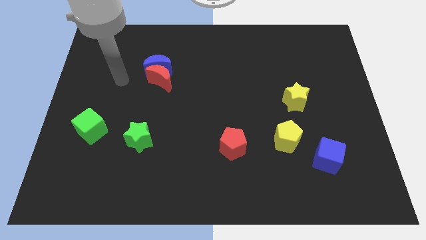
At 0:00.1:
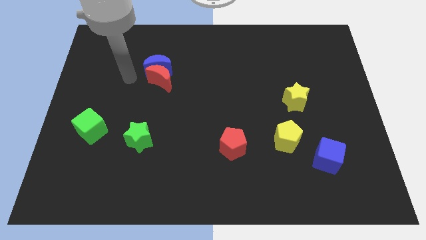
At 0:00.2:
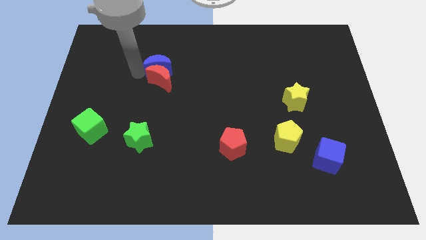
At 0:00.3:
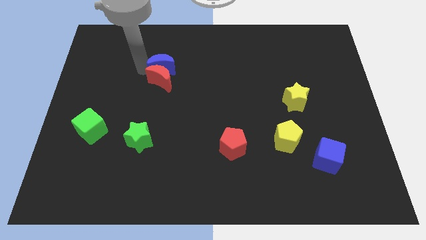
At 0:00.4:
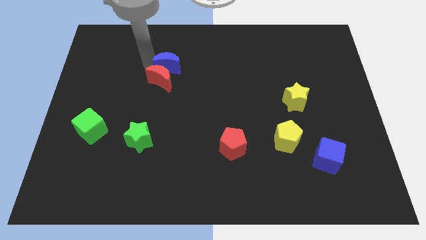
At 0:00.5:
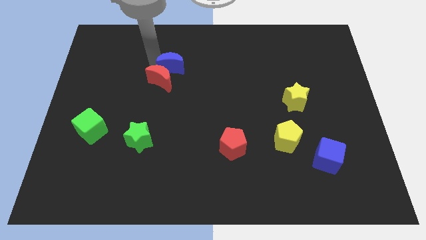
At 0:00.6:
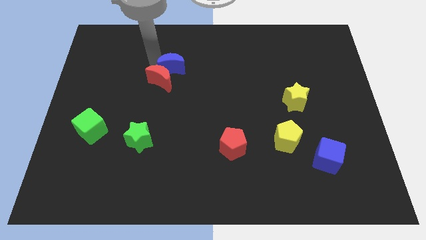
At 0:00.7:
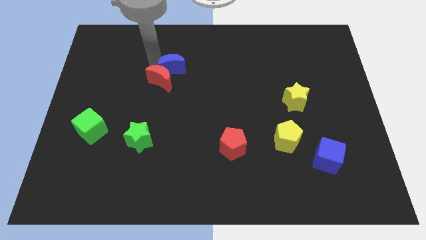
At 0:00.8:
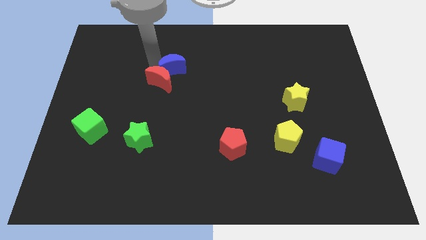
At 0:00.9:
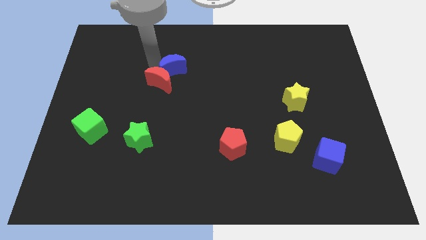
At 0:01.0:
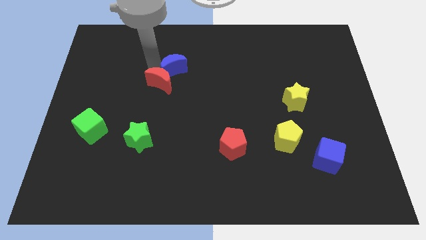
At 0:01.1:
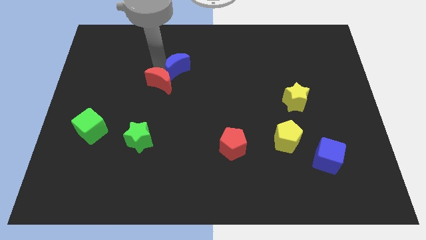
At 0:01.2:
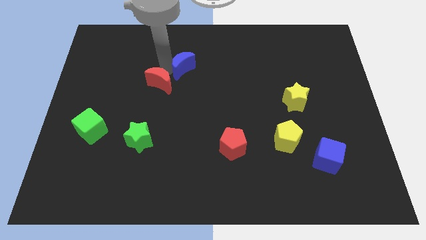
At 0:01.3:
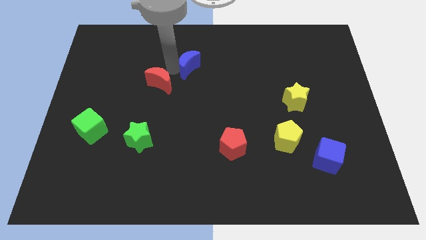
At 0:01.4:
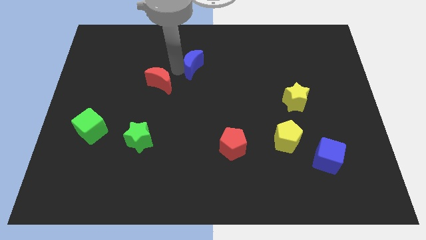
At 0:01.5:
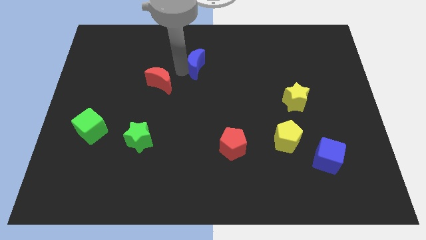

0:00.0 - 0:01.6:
pull the red moon apart from the blue moon

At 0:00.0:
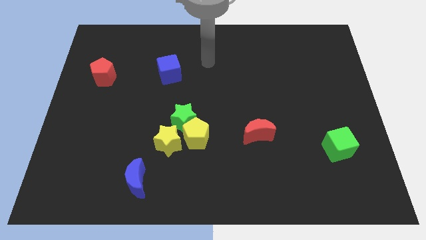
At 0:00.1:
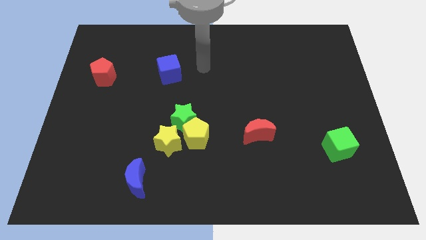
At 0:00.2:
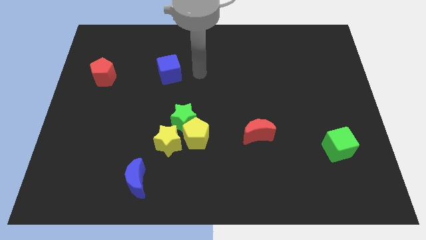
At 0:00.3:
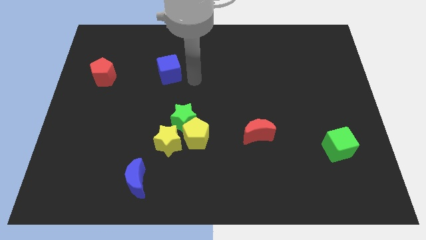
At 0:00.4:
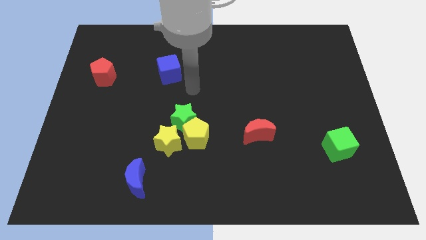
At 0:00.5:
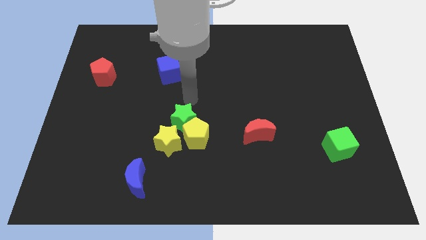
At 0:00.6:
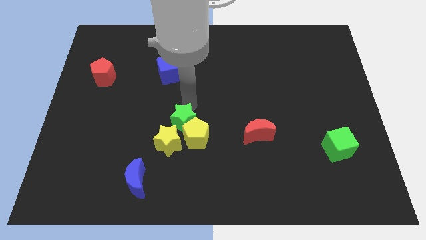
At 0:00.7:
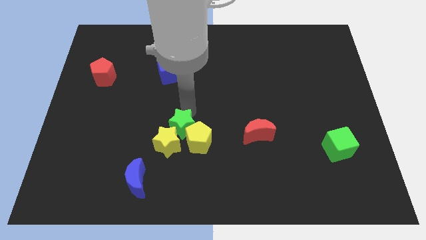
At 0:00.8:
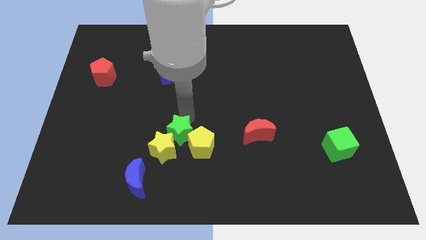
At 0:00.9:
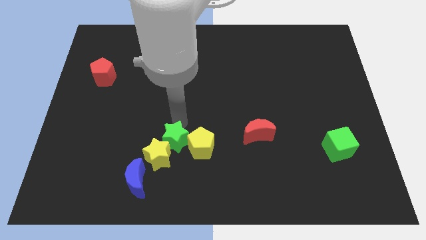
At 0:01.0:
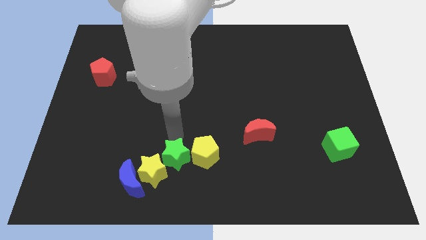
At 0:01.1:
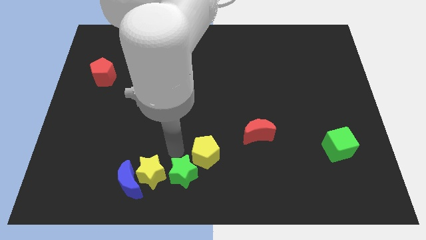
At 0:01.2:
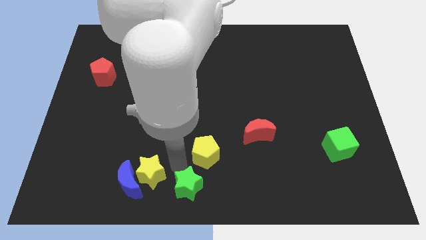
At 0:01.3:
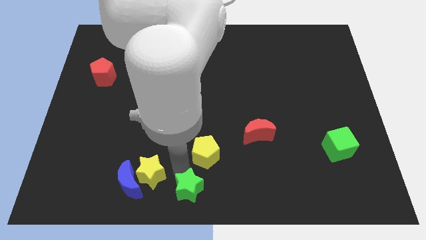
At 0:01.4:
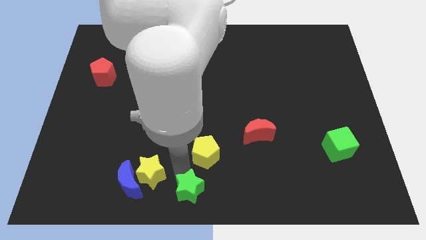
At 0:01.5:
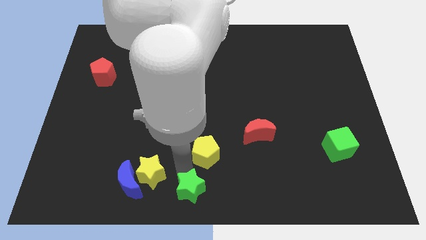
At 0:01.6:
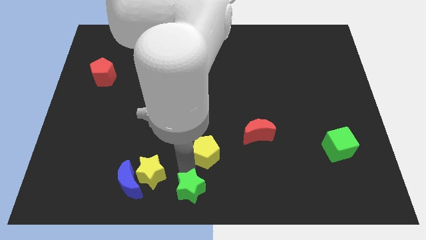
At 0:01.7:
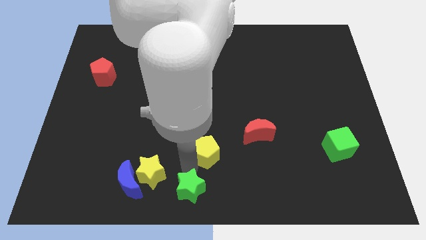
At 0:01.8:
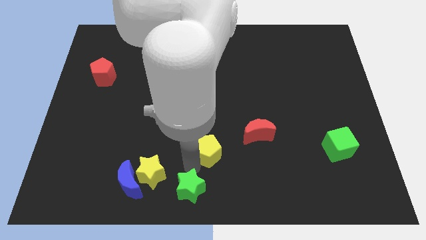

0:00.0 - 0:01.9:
pull the yellow pentagon apart from the green star and yellow star

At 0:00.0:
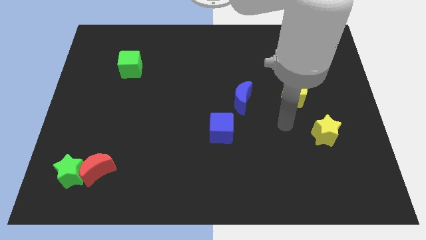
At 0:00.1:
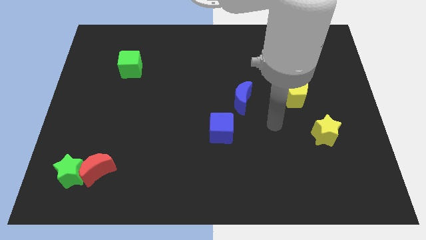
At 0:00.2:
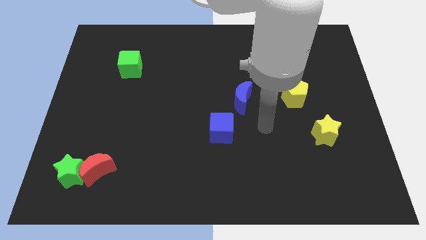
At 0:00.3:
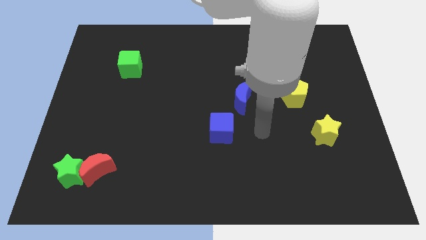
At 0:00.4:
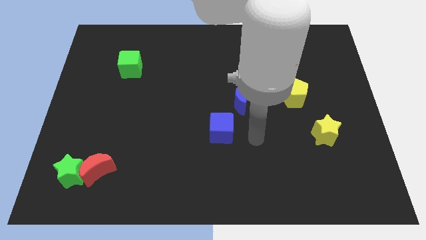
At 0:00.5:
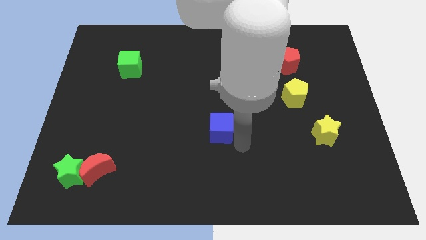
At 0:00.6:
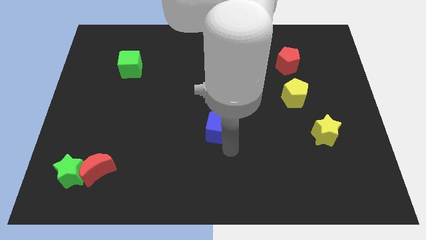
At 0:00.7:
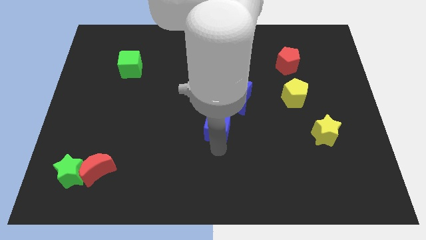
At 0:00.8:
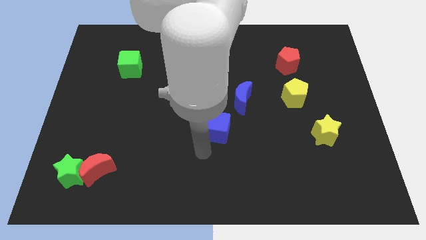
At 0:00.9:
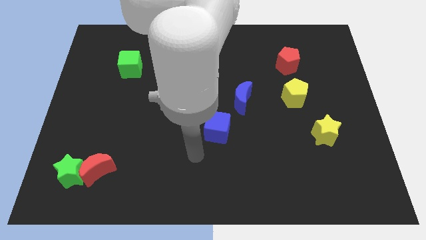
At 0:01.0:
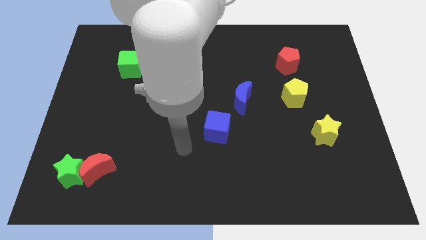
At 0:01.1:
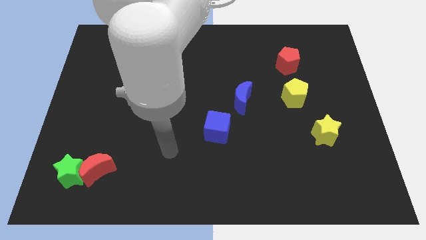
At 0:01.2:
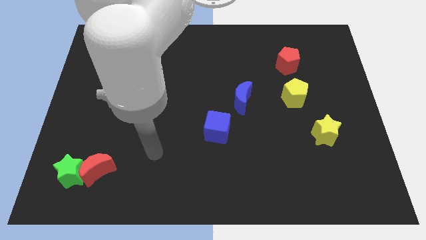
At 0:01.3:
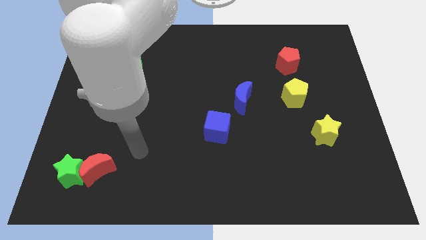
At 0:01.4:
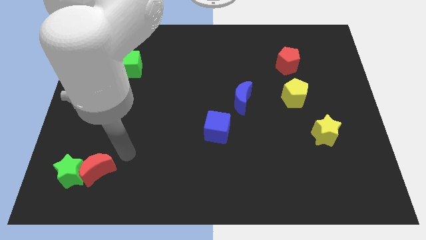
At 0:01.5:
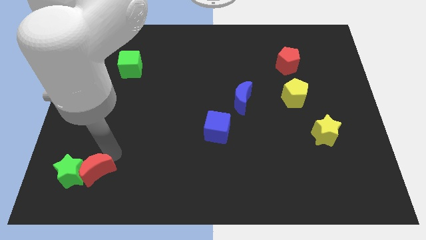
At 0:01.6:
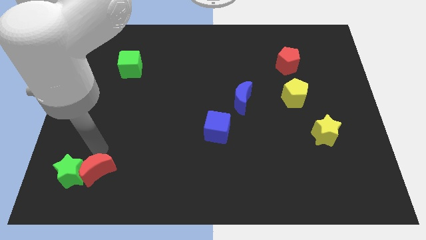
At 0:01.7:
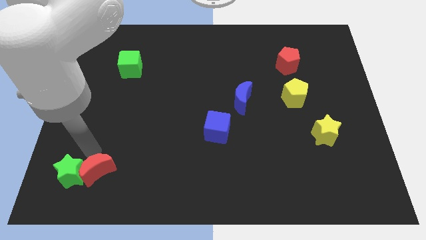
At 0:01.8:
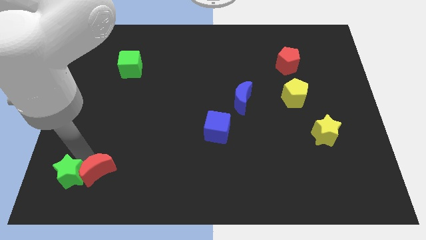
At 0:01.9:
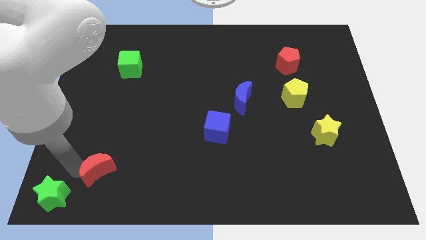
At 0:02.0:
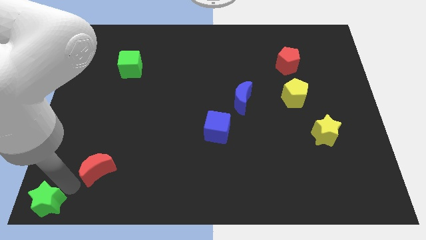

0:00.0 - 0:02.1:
move the red moon away from the green star

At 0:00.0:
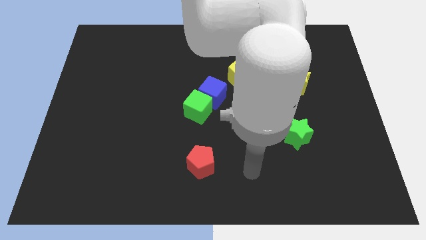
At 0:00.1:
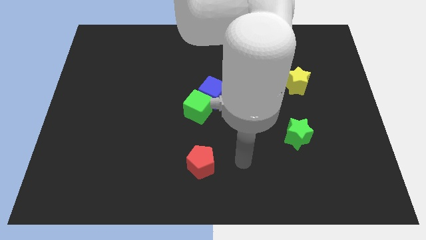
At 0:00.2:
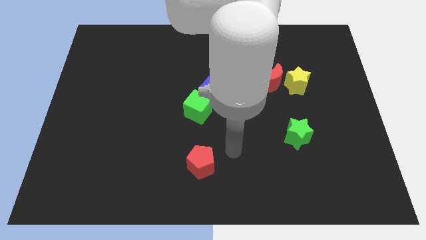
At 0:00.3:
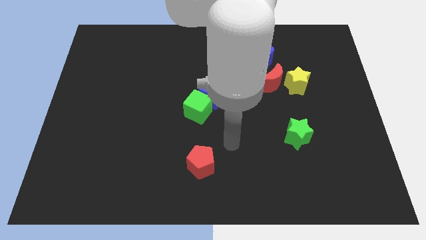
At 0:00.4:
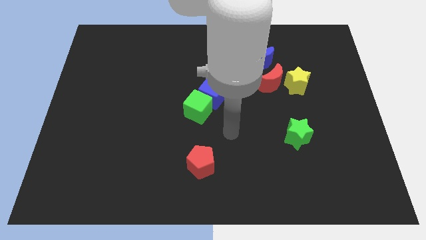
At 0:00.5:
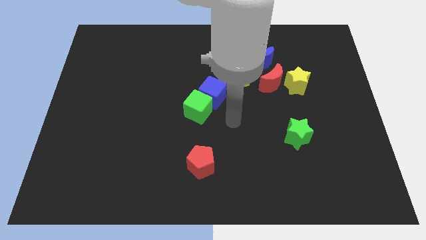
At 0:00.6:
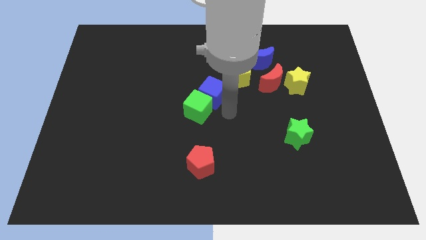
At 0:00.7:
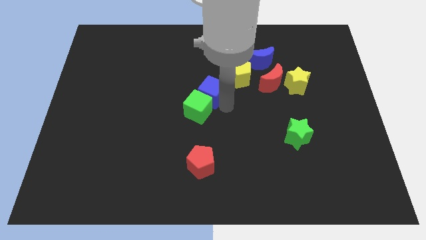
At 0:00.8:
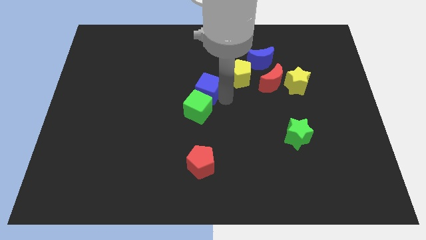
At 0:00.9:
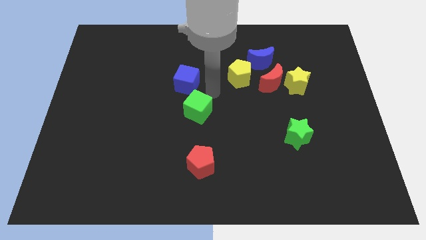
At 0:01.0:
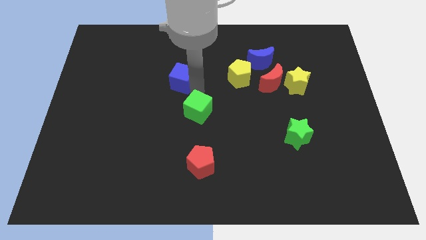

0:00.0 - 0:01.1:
move the green cube away from the blue cube

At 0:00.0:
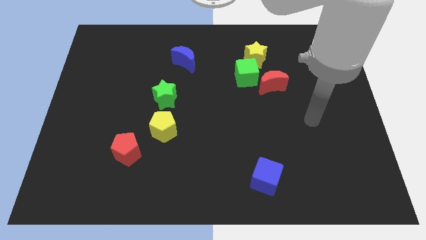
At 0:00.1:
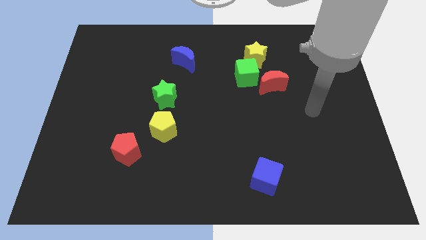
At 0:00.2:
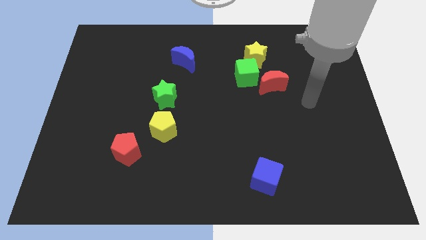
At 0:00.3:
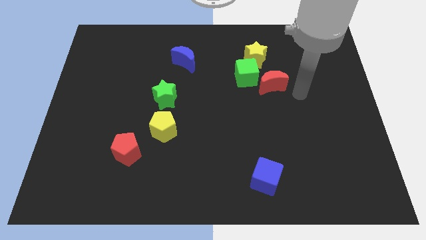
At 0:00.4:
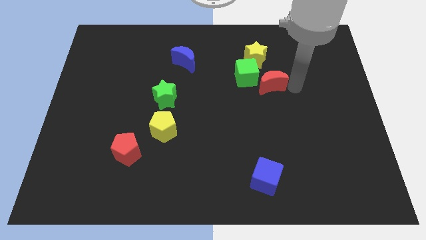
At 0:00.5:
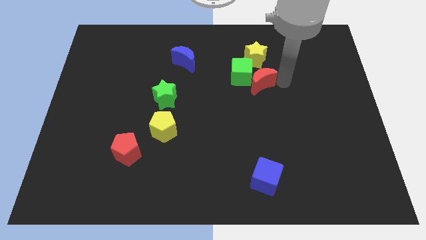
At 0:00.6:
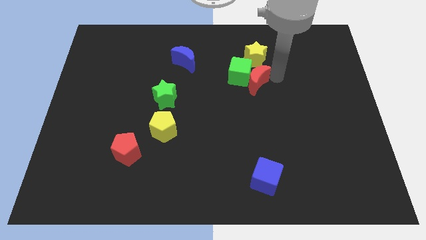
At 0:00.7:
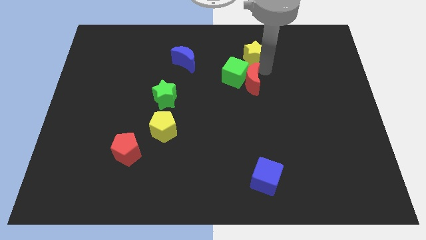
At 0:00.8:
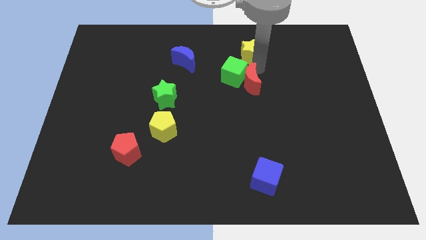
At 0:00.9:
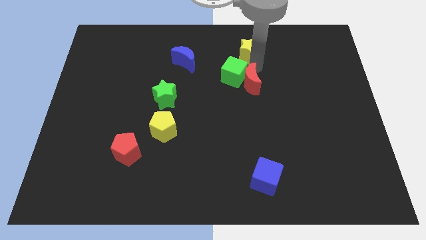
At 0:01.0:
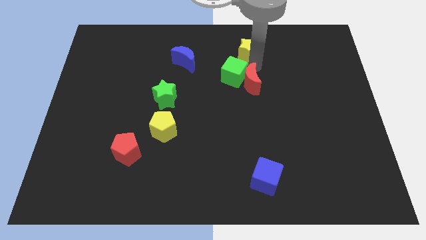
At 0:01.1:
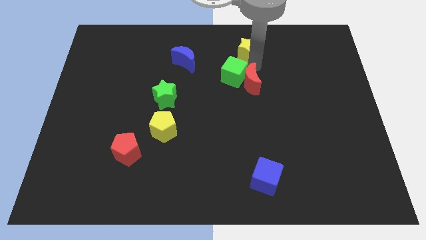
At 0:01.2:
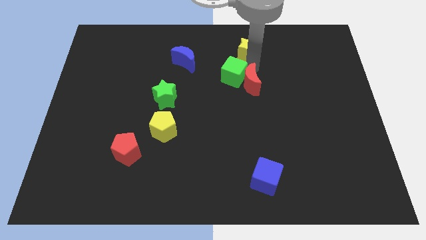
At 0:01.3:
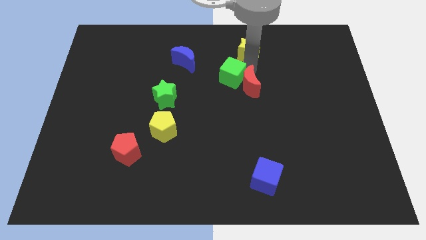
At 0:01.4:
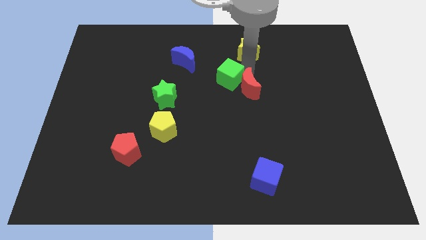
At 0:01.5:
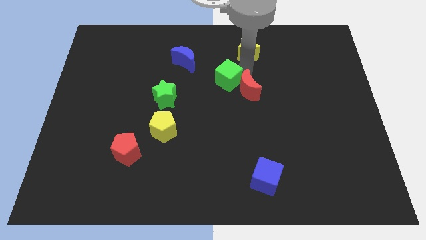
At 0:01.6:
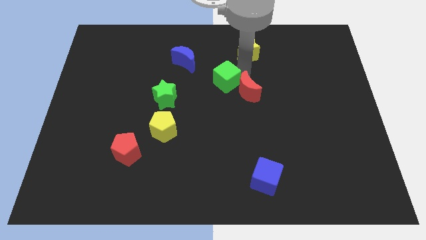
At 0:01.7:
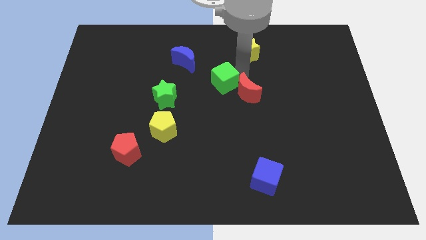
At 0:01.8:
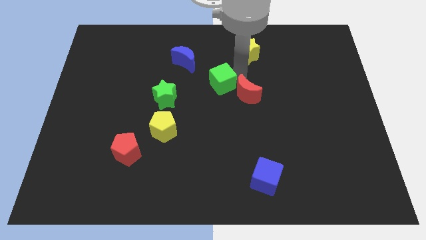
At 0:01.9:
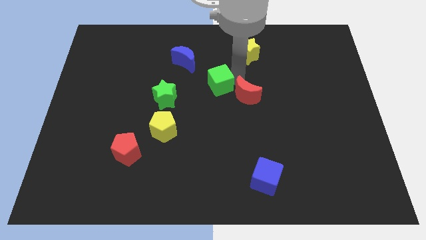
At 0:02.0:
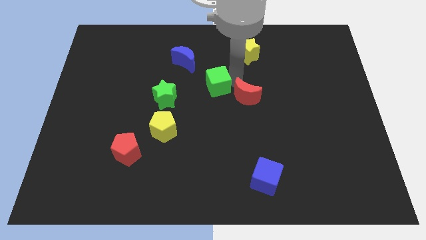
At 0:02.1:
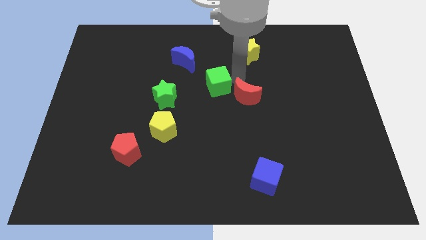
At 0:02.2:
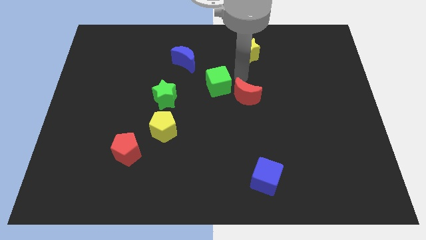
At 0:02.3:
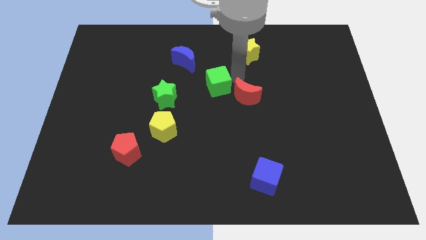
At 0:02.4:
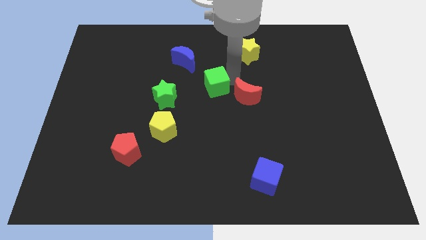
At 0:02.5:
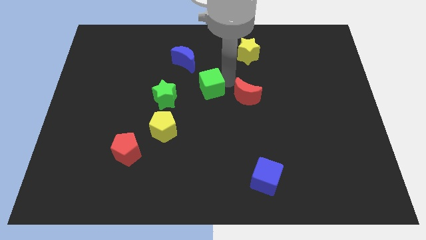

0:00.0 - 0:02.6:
separate the green cube from the red moon and yellow star

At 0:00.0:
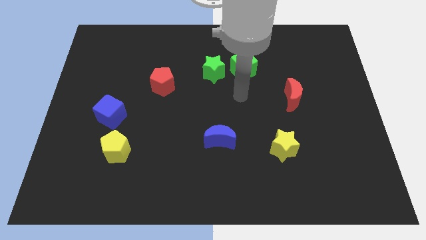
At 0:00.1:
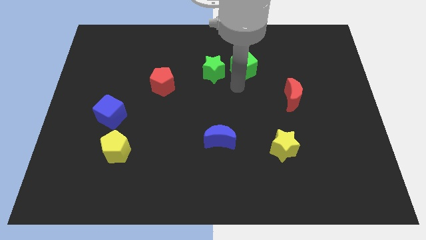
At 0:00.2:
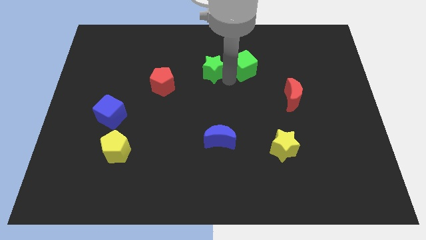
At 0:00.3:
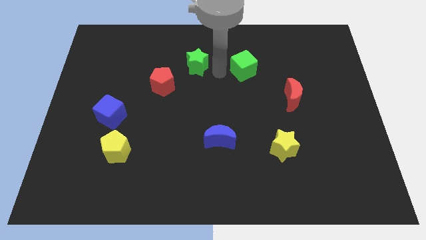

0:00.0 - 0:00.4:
move the green cube away from the green star
